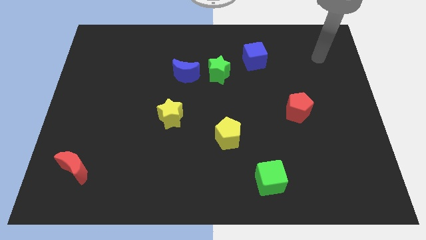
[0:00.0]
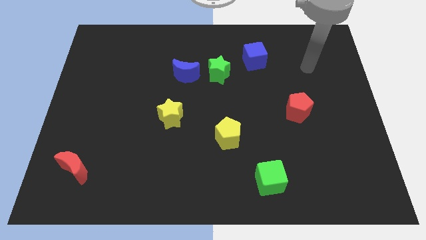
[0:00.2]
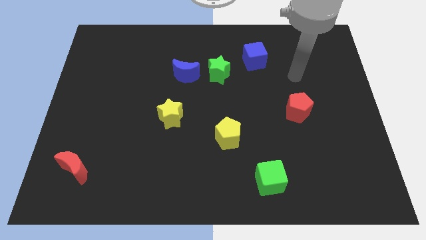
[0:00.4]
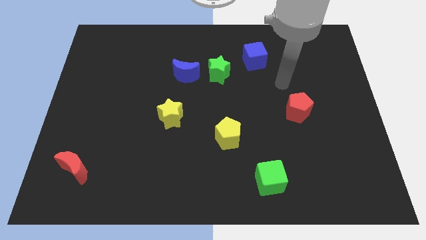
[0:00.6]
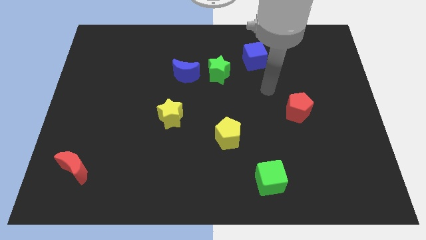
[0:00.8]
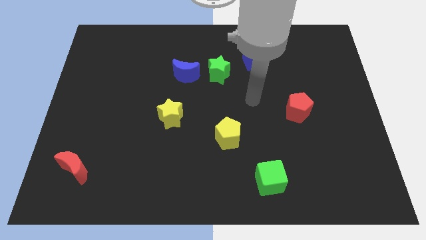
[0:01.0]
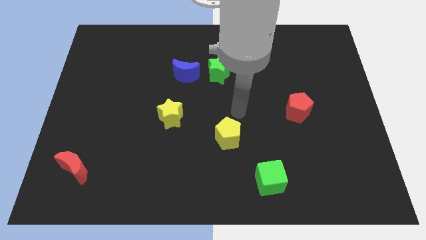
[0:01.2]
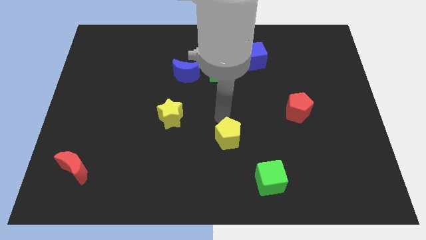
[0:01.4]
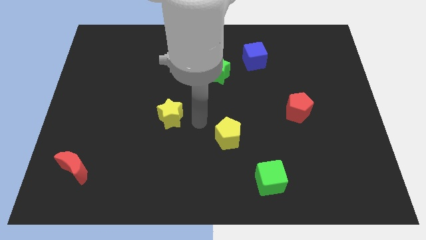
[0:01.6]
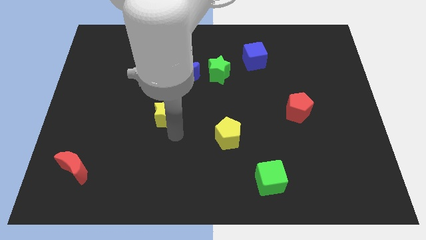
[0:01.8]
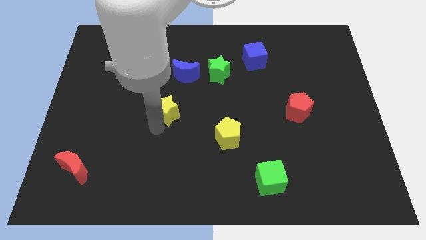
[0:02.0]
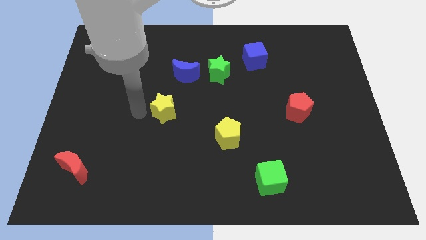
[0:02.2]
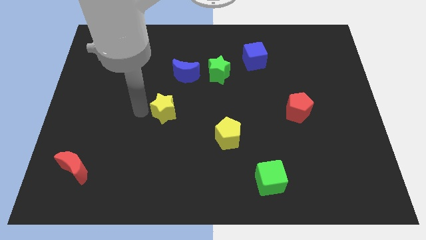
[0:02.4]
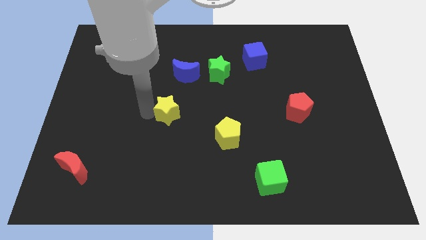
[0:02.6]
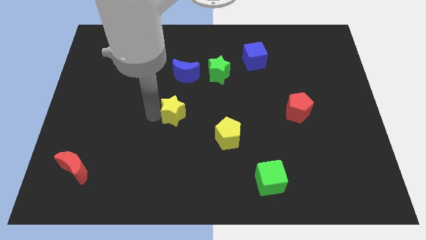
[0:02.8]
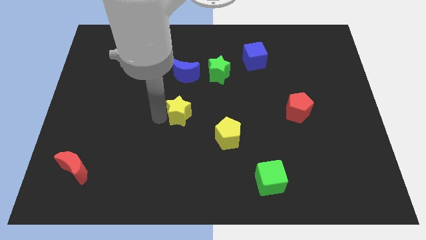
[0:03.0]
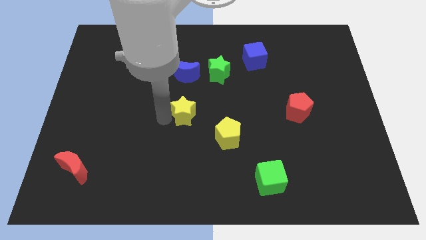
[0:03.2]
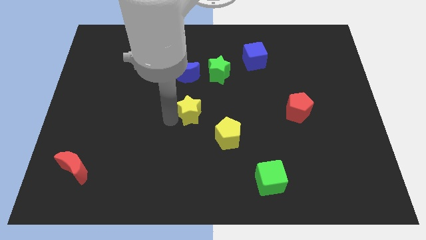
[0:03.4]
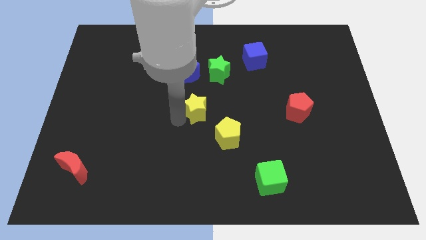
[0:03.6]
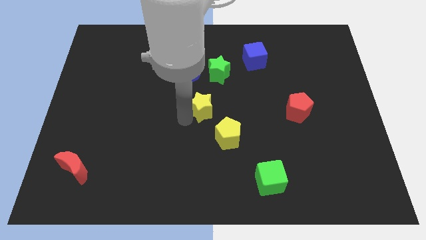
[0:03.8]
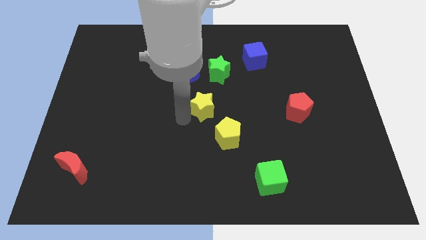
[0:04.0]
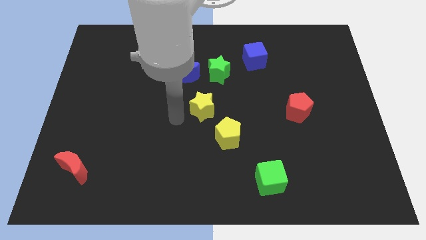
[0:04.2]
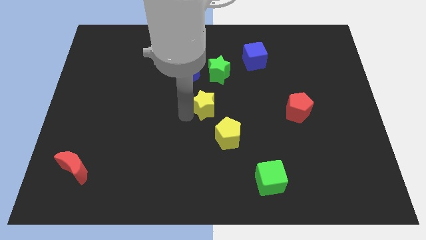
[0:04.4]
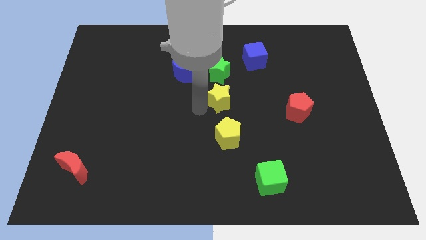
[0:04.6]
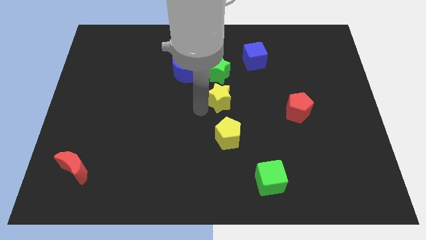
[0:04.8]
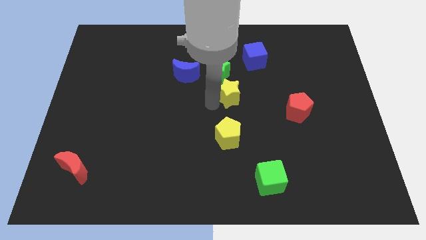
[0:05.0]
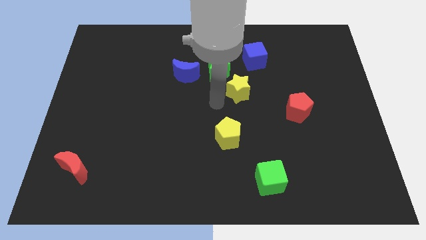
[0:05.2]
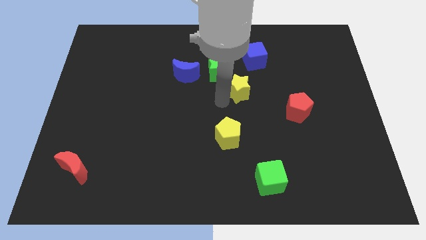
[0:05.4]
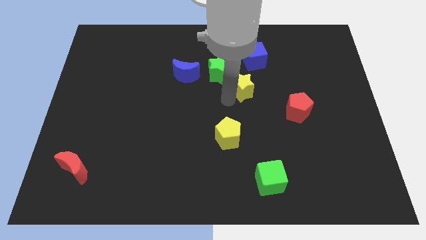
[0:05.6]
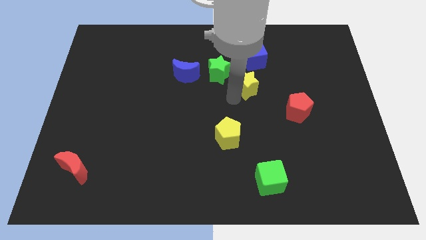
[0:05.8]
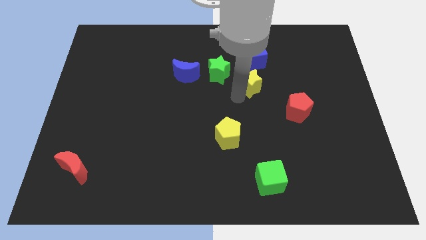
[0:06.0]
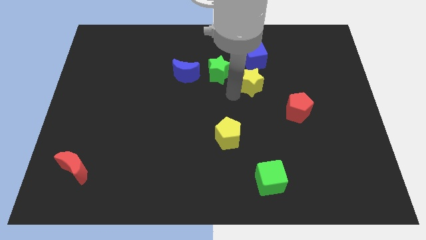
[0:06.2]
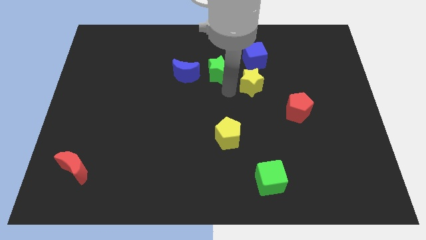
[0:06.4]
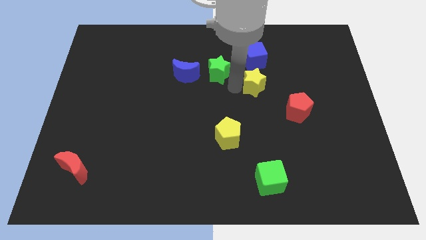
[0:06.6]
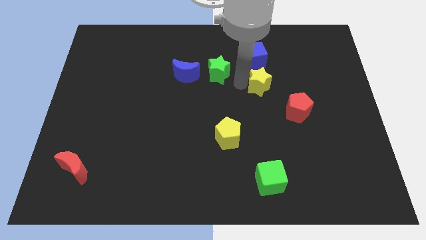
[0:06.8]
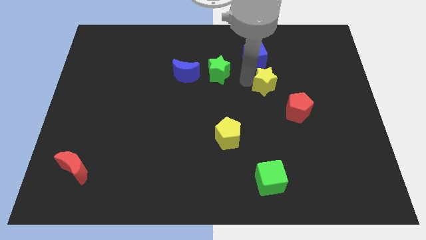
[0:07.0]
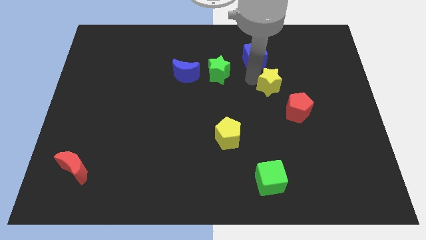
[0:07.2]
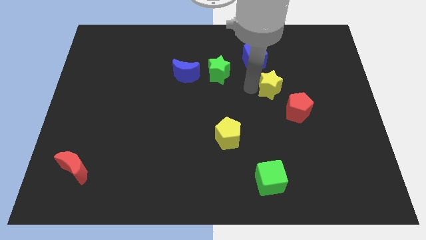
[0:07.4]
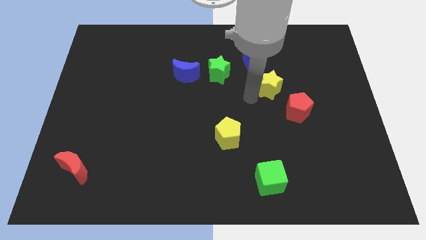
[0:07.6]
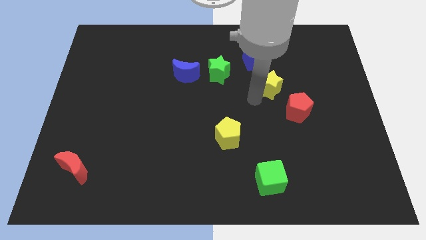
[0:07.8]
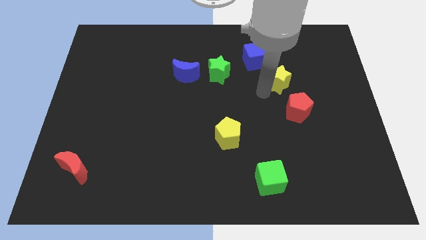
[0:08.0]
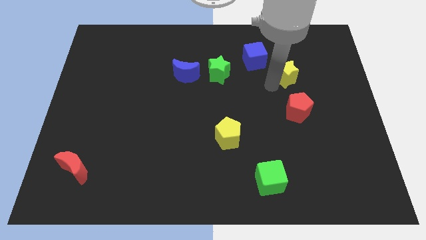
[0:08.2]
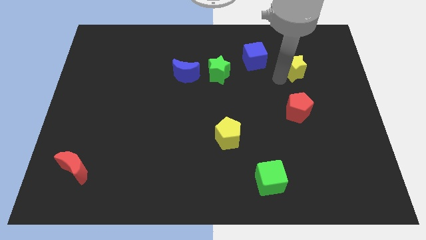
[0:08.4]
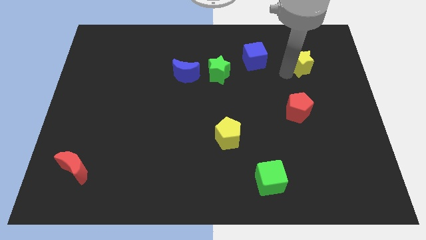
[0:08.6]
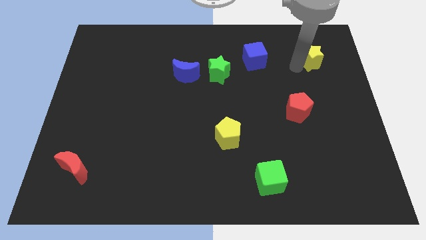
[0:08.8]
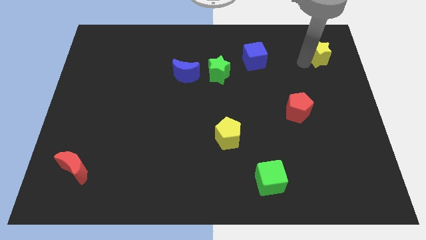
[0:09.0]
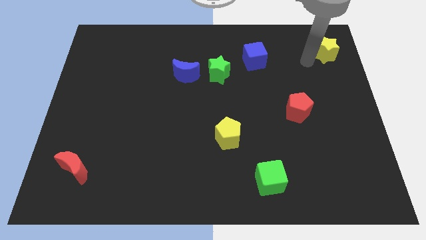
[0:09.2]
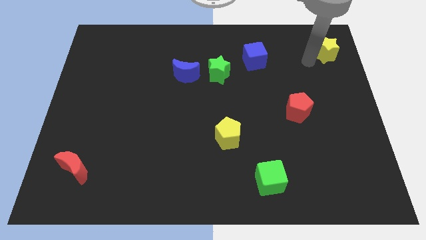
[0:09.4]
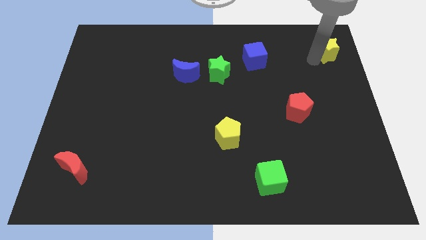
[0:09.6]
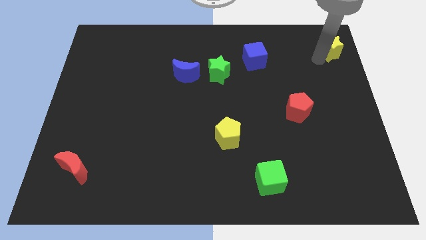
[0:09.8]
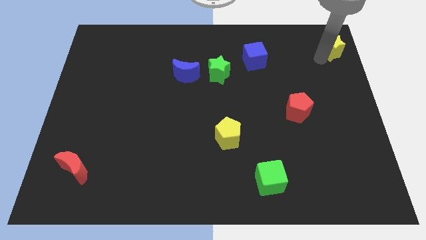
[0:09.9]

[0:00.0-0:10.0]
push the yellow star to the top right of the board
